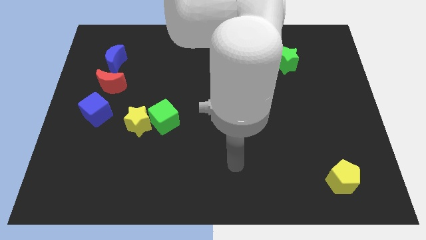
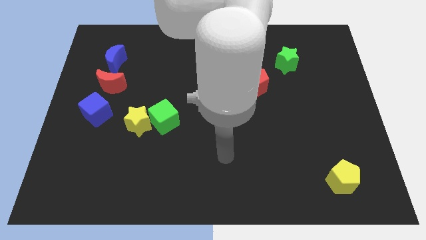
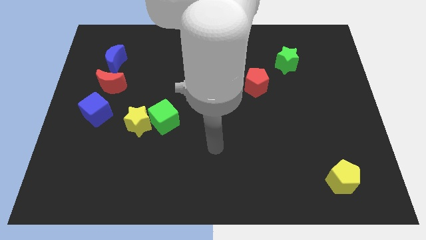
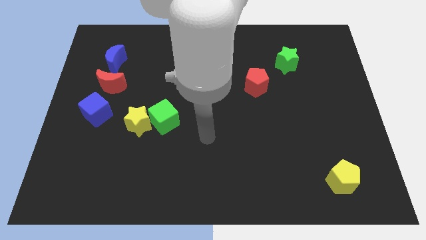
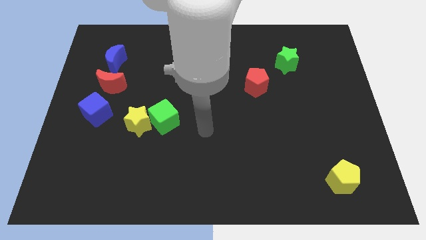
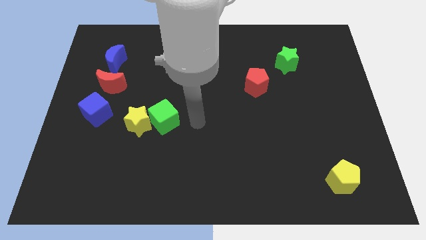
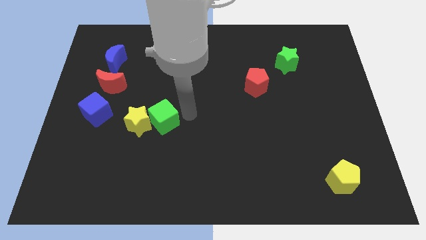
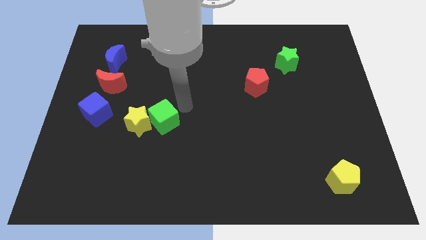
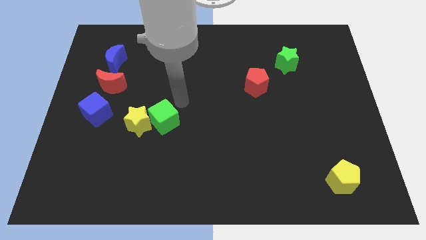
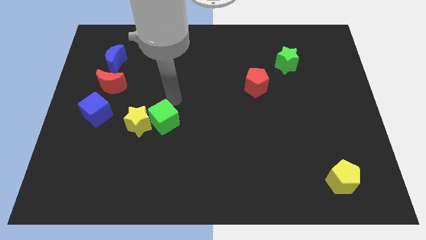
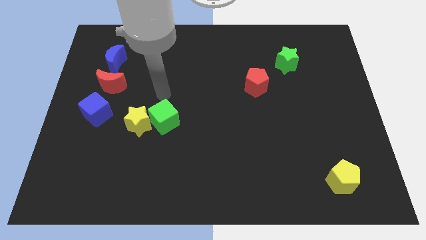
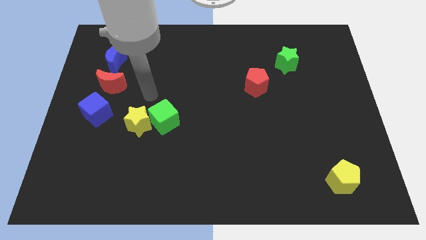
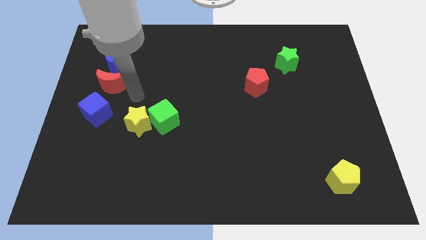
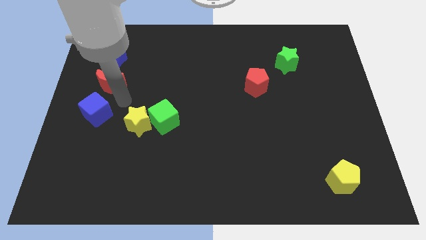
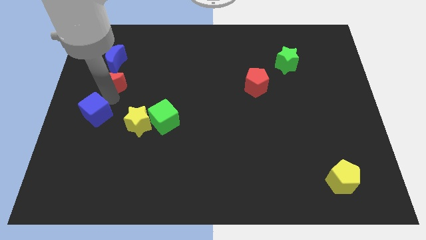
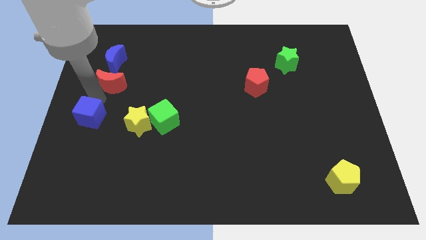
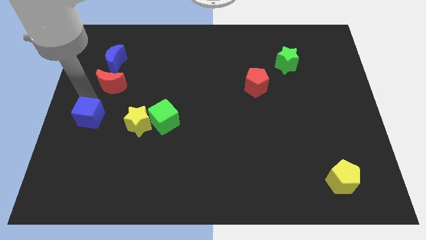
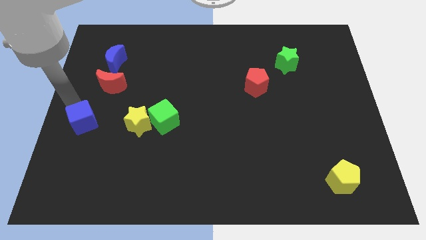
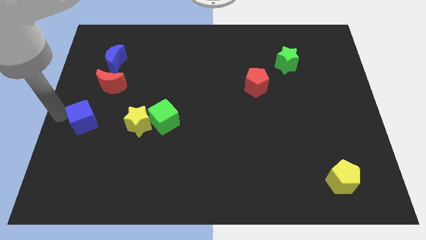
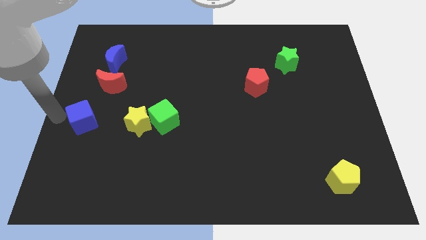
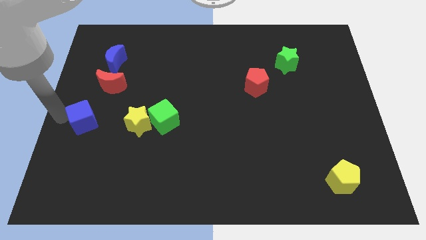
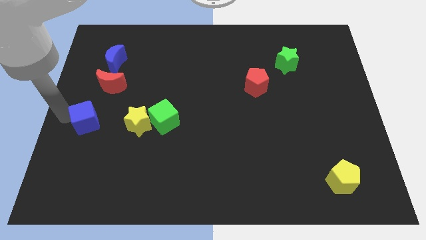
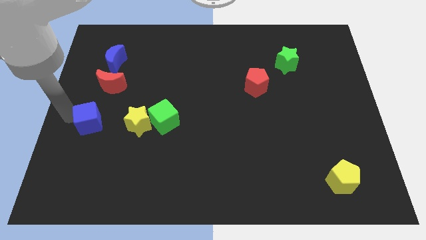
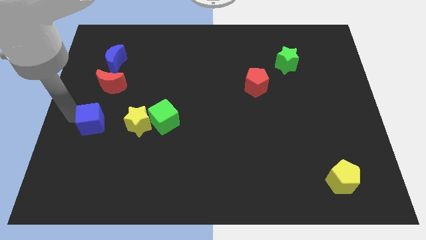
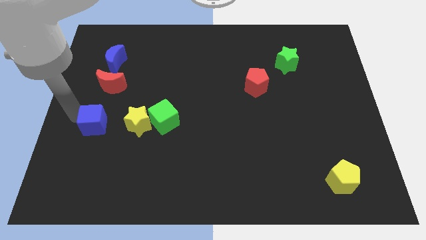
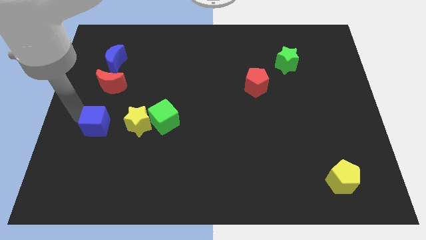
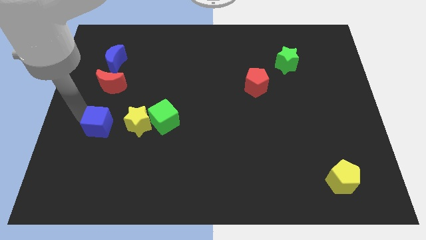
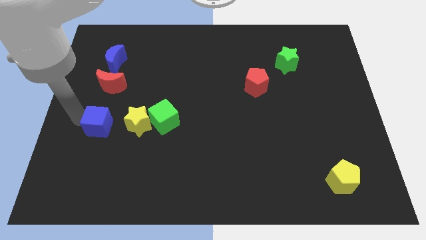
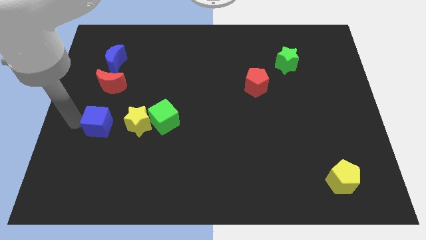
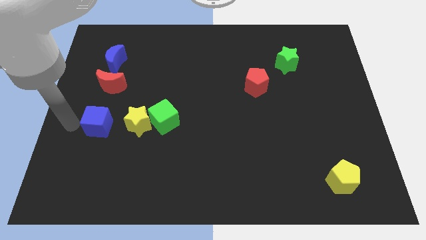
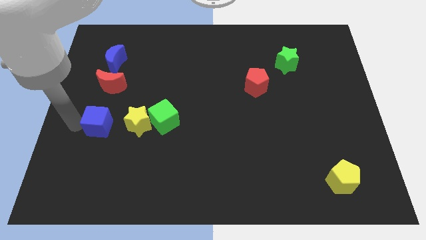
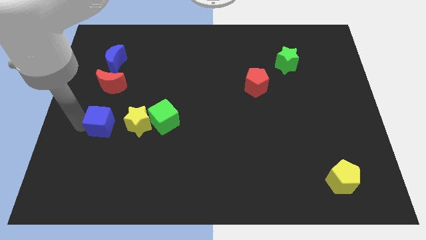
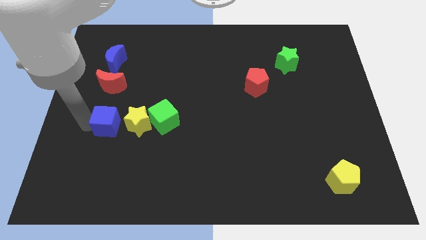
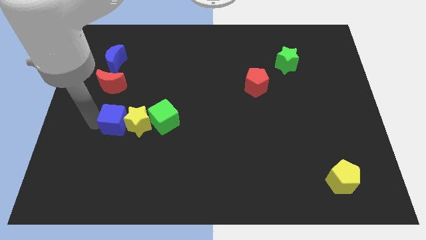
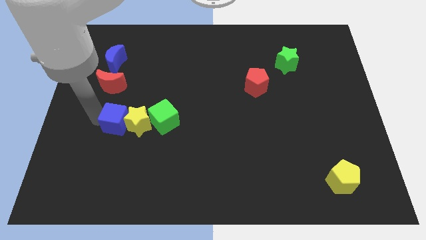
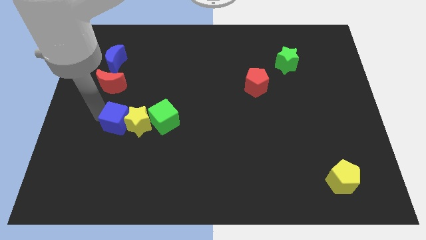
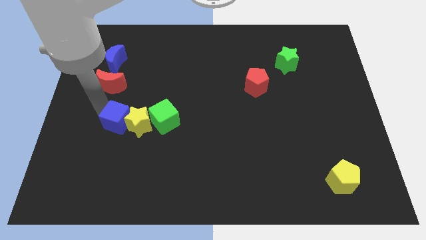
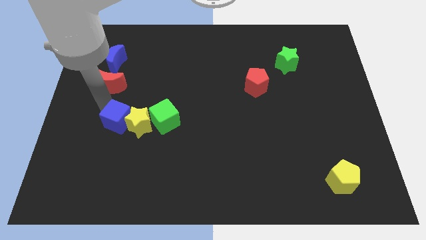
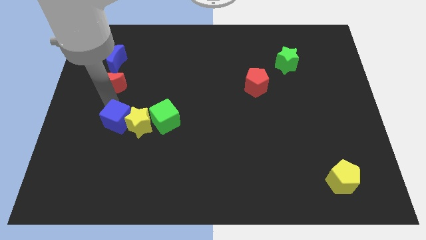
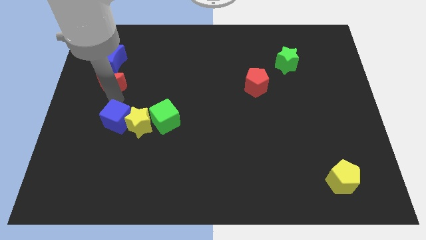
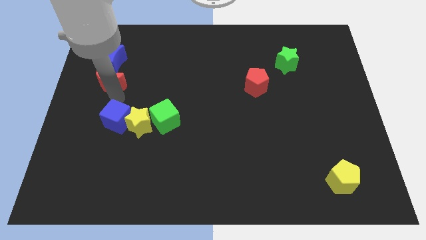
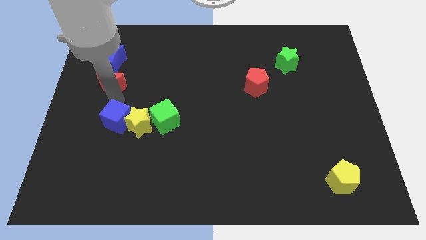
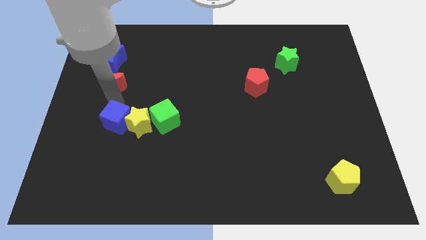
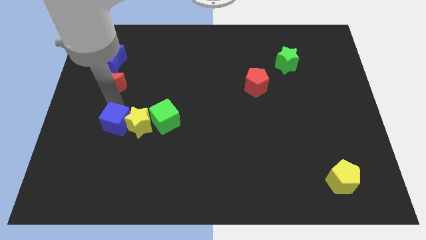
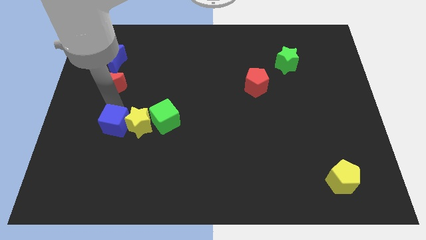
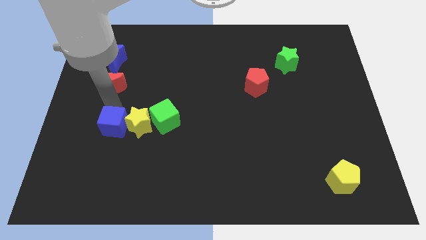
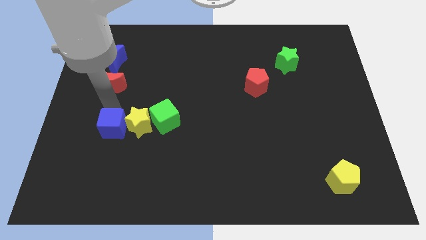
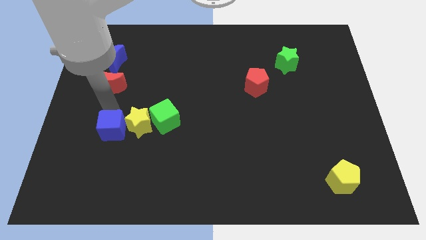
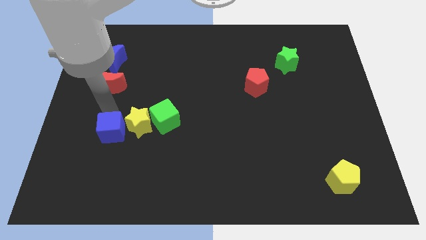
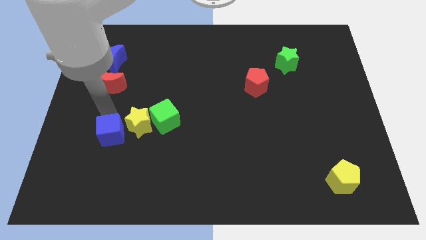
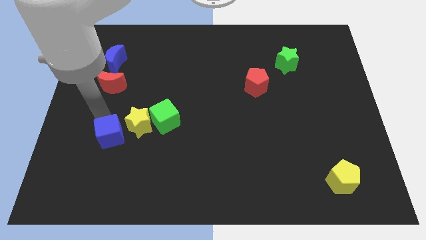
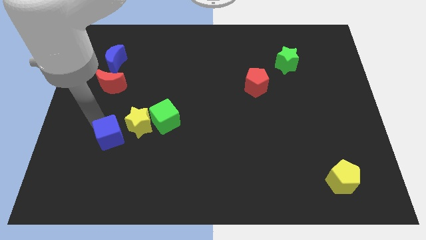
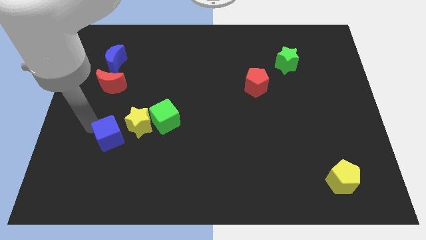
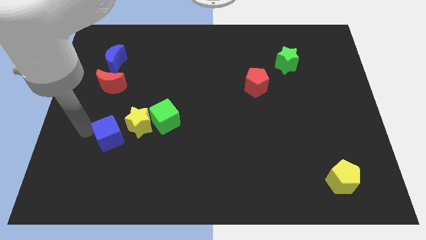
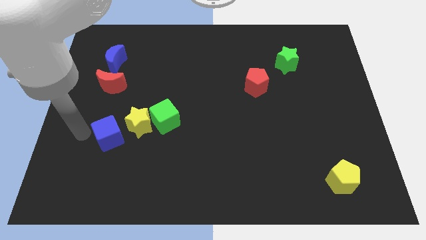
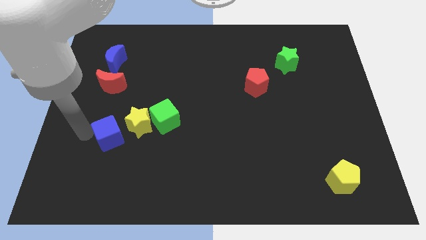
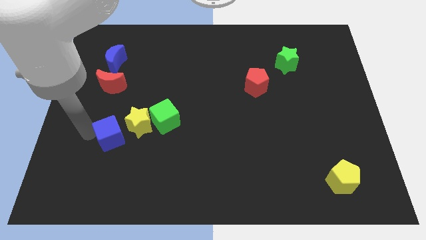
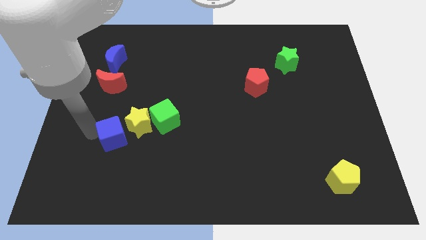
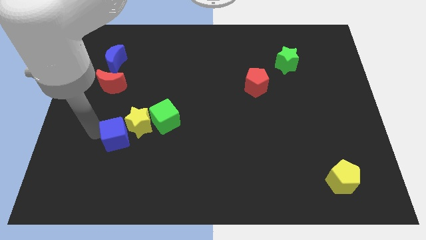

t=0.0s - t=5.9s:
push the blue cube diagonally down and to the left of the green cube
